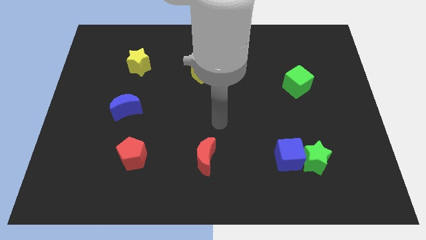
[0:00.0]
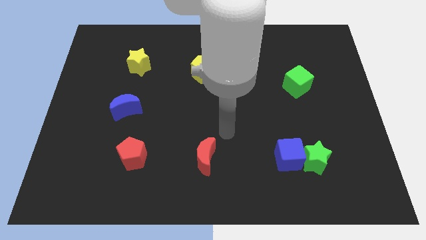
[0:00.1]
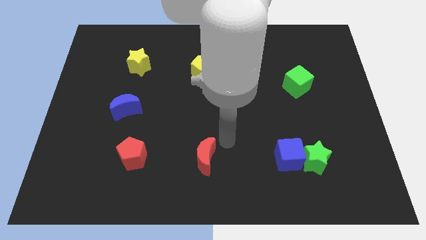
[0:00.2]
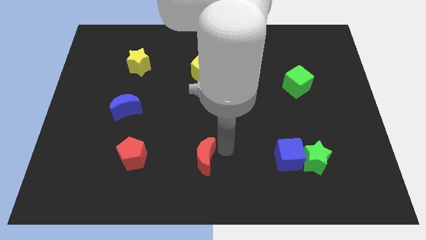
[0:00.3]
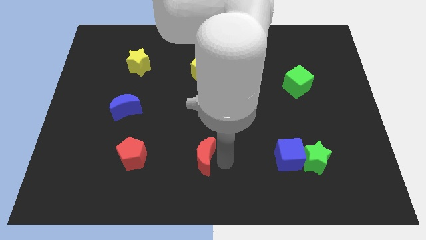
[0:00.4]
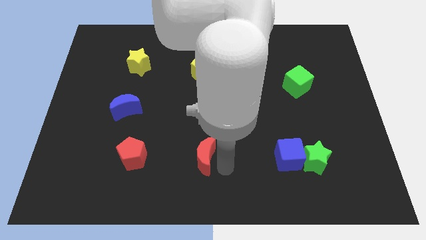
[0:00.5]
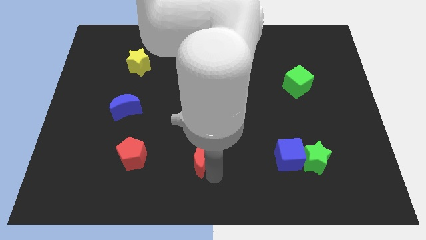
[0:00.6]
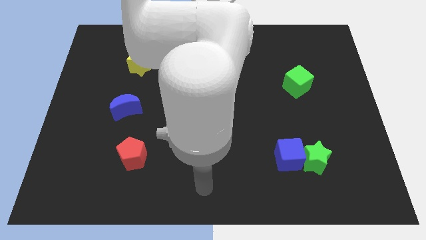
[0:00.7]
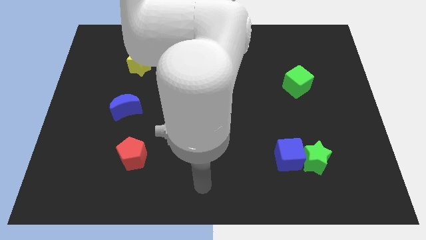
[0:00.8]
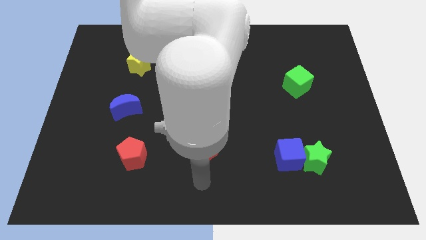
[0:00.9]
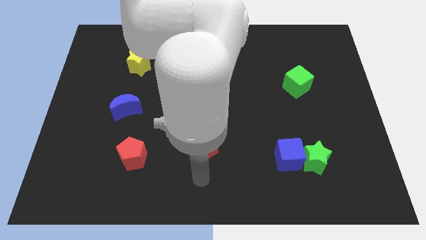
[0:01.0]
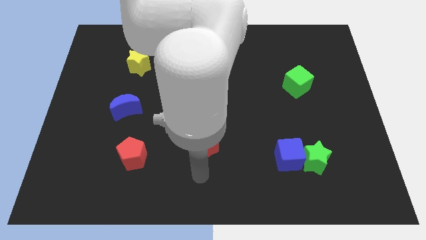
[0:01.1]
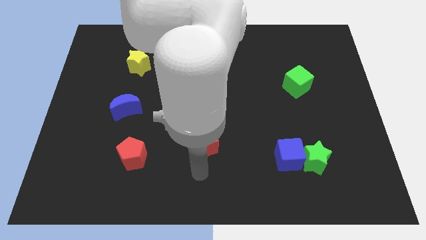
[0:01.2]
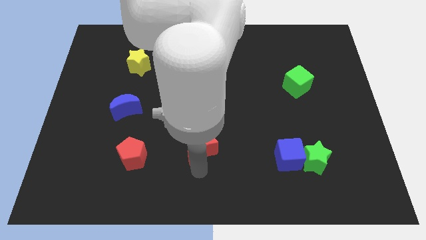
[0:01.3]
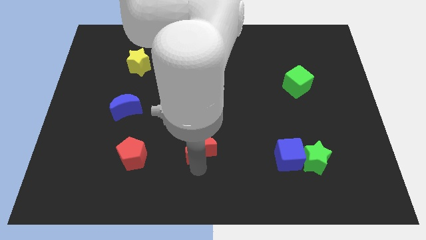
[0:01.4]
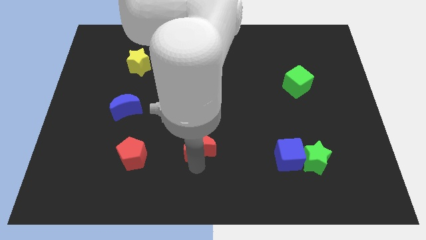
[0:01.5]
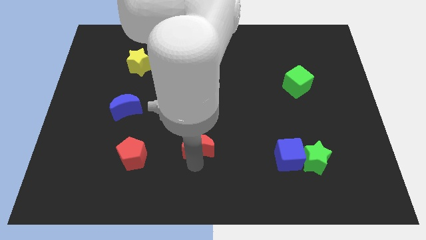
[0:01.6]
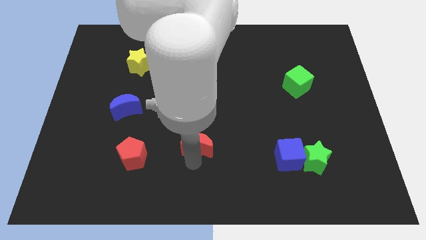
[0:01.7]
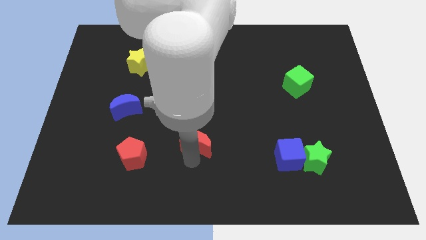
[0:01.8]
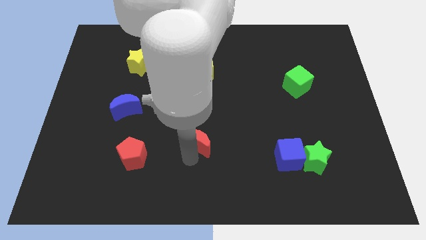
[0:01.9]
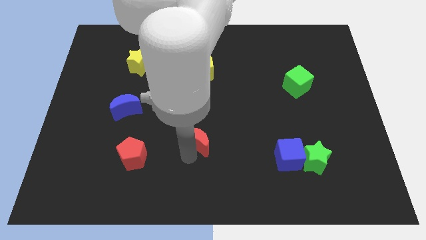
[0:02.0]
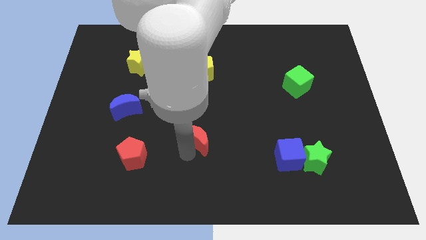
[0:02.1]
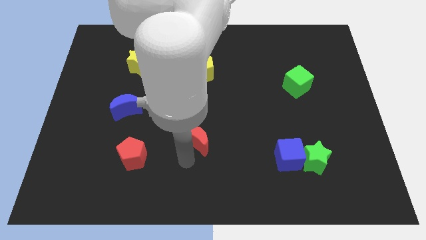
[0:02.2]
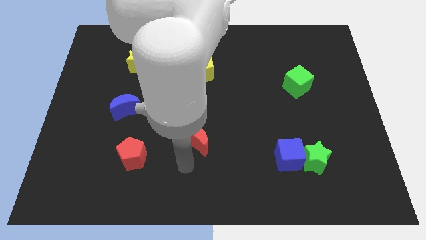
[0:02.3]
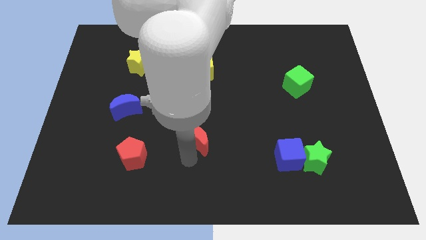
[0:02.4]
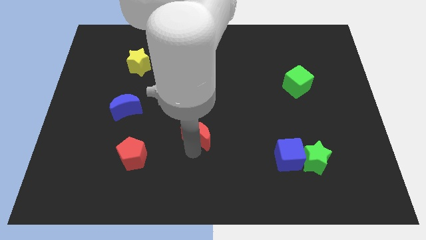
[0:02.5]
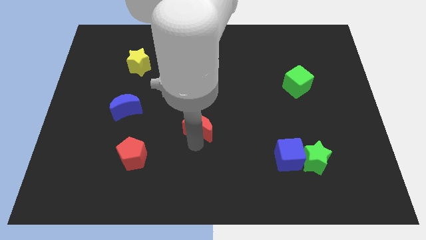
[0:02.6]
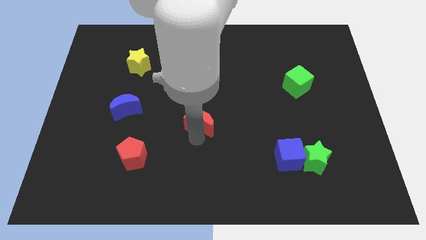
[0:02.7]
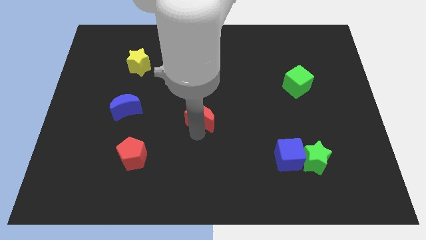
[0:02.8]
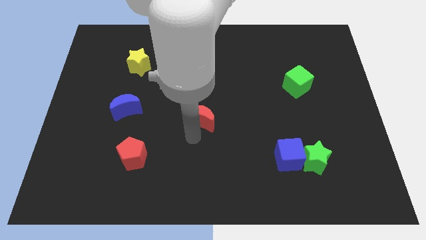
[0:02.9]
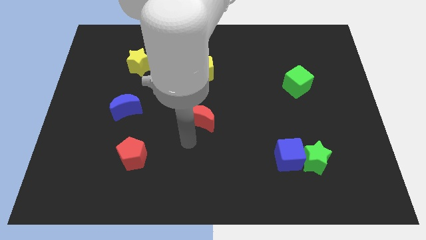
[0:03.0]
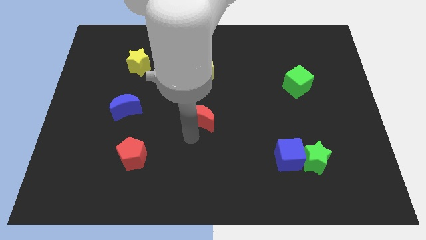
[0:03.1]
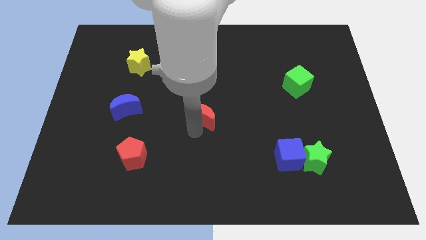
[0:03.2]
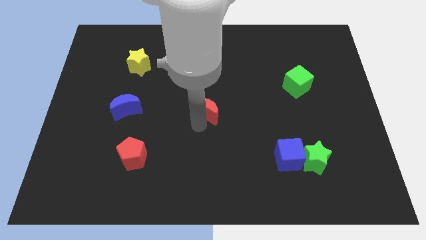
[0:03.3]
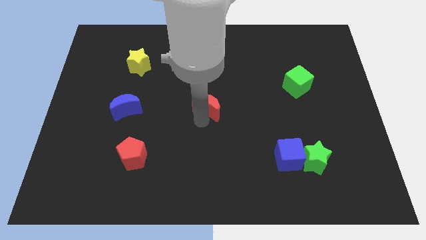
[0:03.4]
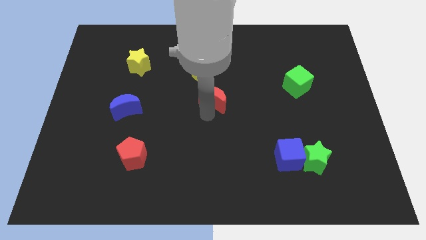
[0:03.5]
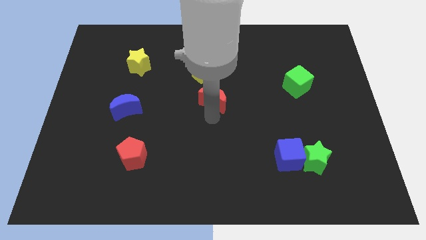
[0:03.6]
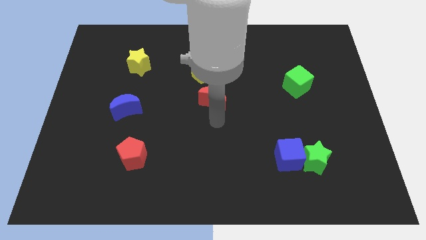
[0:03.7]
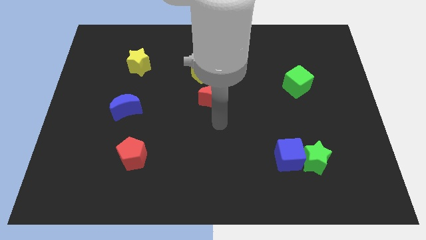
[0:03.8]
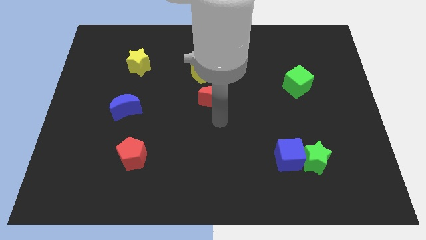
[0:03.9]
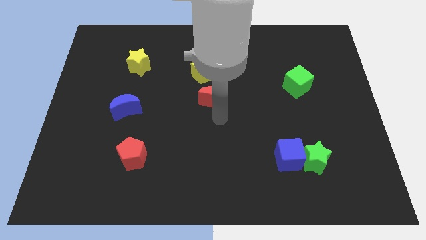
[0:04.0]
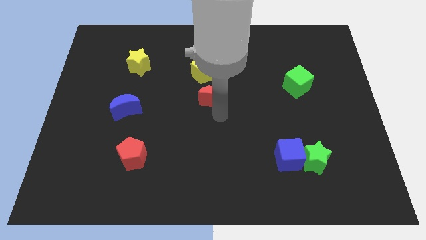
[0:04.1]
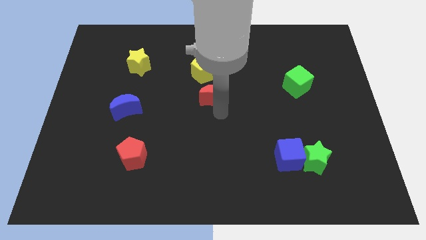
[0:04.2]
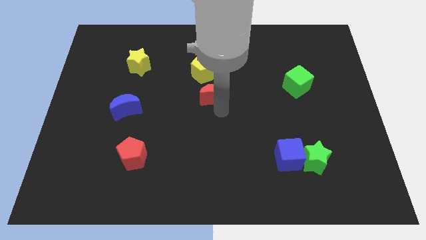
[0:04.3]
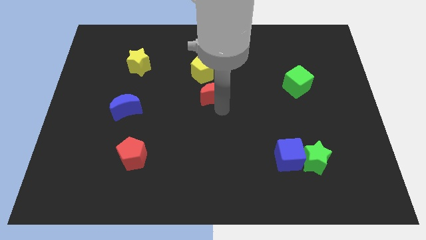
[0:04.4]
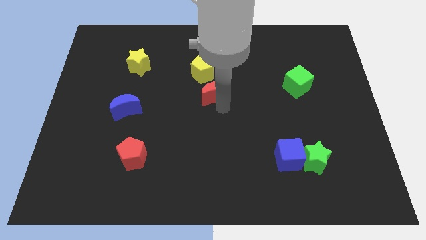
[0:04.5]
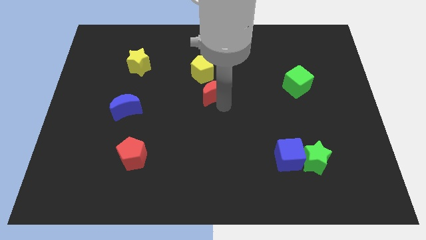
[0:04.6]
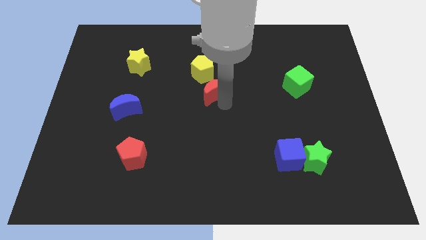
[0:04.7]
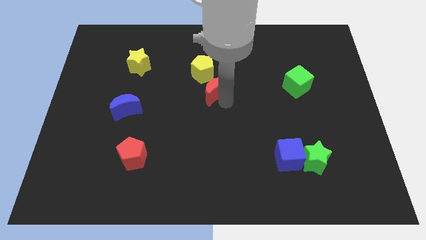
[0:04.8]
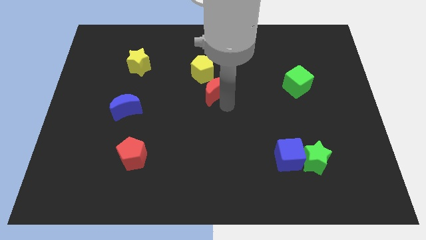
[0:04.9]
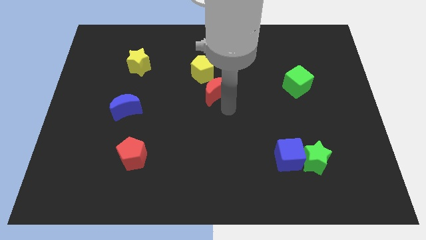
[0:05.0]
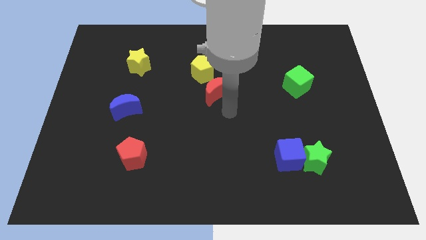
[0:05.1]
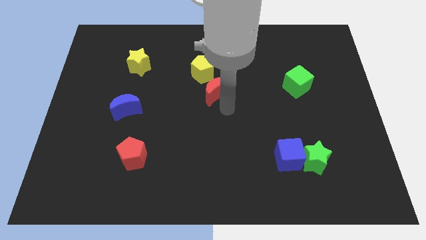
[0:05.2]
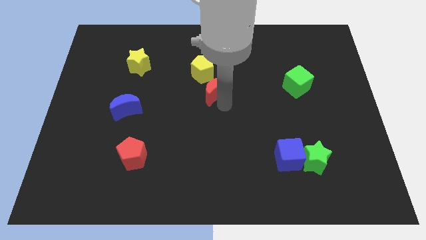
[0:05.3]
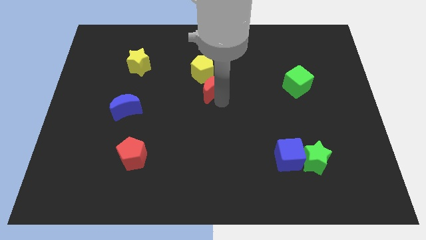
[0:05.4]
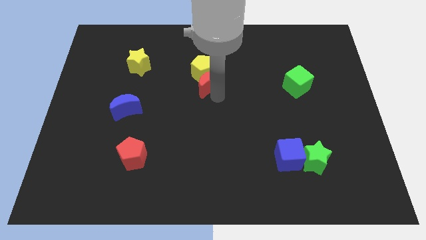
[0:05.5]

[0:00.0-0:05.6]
slide the red moon towards the yellow pentagon

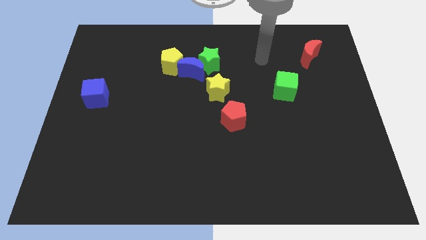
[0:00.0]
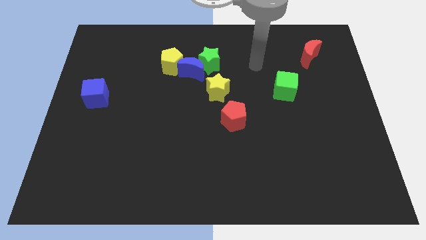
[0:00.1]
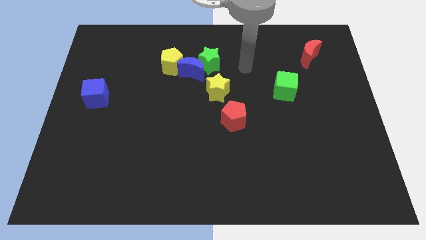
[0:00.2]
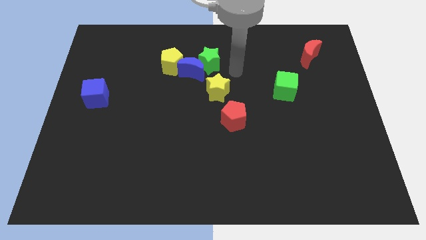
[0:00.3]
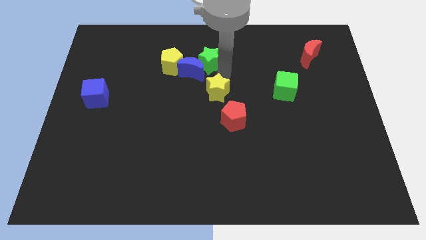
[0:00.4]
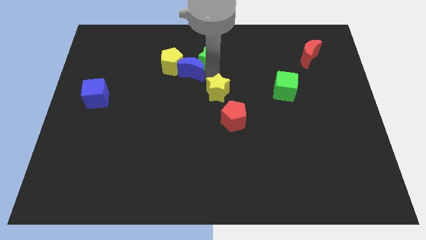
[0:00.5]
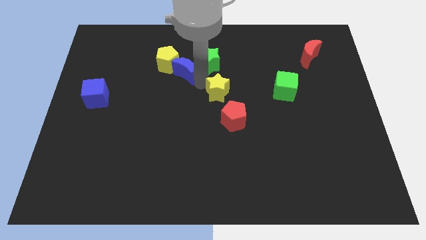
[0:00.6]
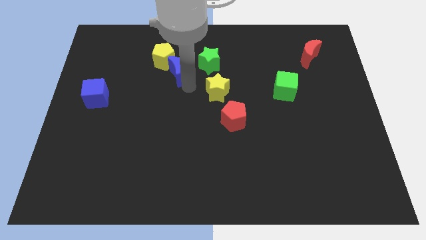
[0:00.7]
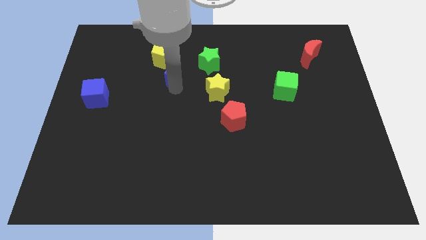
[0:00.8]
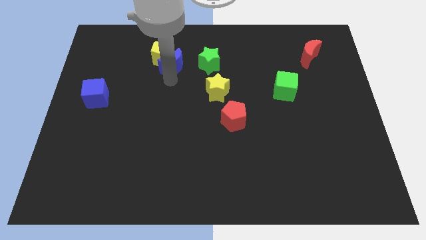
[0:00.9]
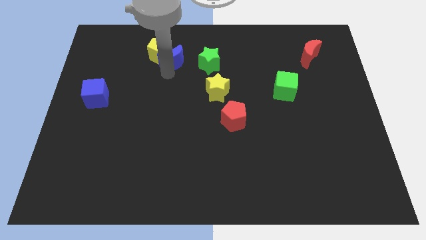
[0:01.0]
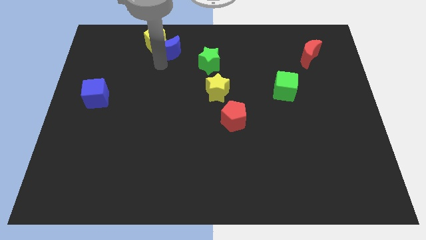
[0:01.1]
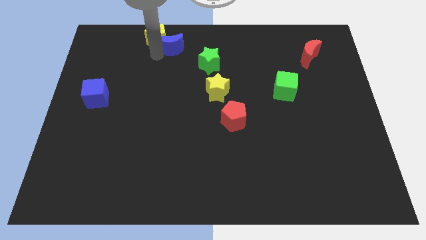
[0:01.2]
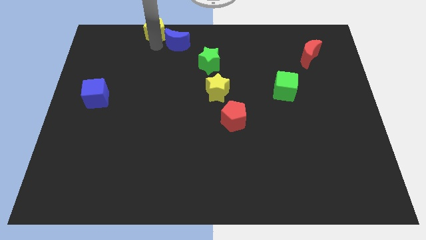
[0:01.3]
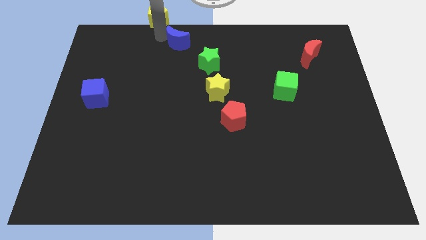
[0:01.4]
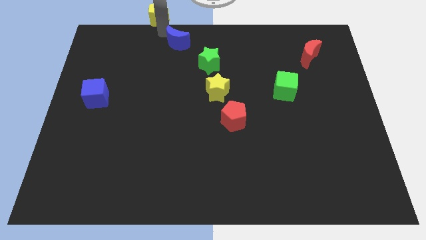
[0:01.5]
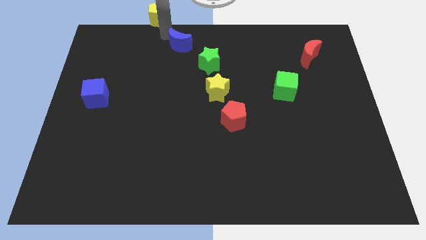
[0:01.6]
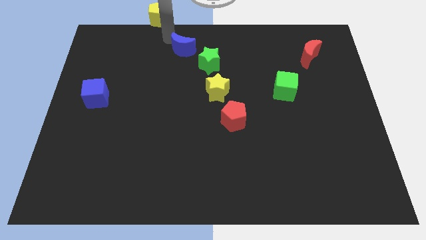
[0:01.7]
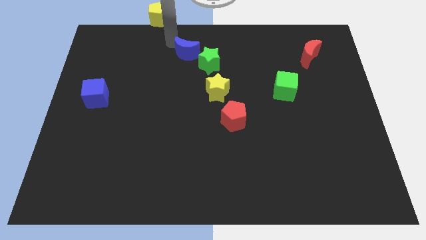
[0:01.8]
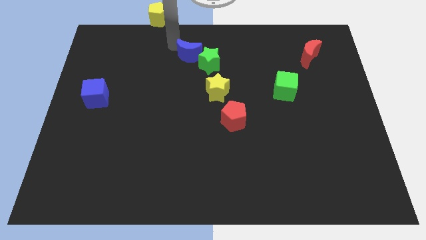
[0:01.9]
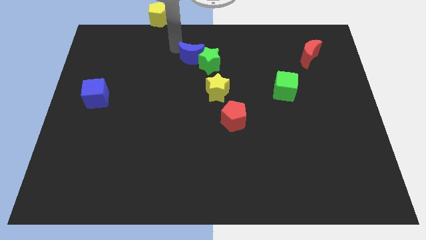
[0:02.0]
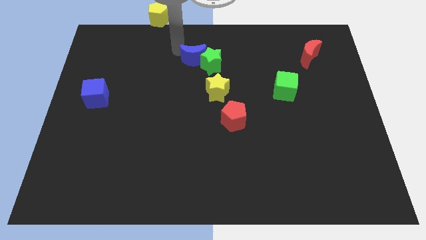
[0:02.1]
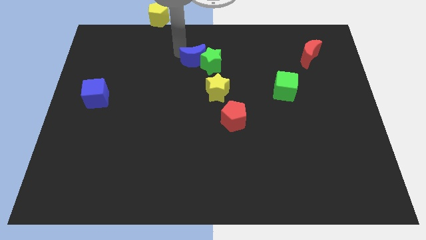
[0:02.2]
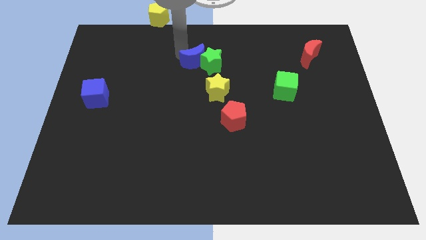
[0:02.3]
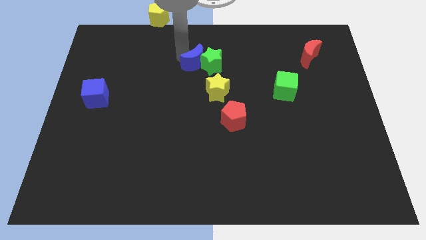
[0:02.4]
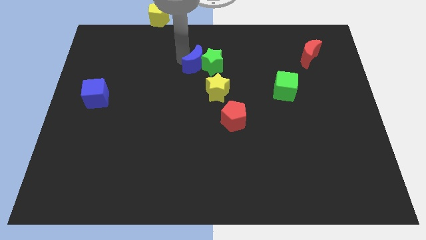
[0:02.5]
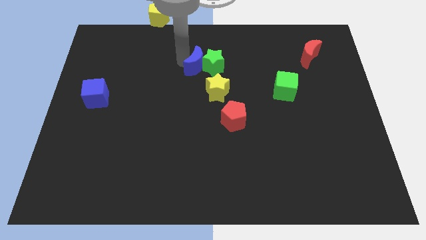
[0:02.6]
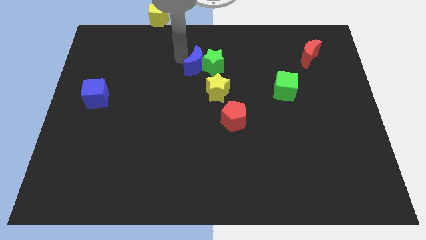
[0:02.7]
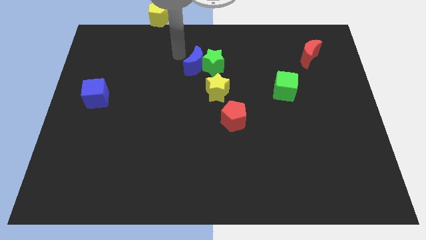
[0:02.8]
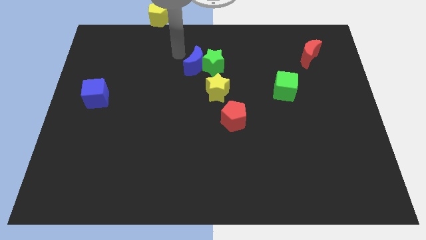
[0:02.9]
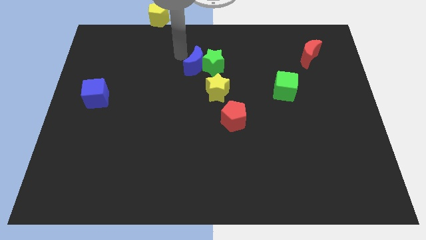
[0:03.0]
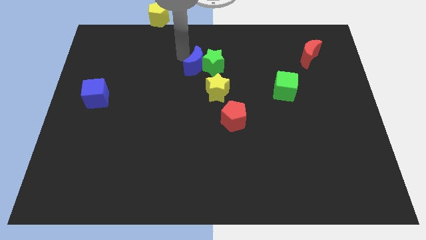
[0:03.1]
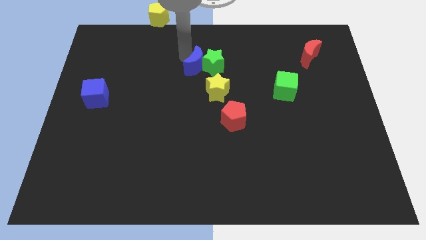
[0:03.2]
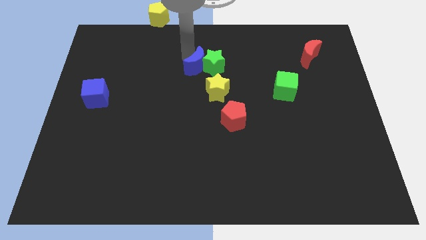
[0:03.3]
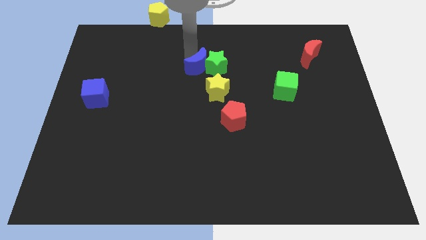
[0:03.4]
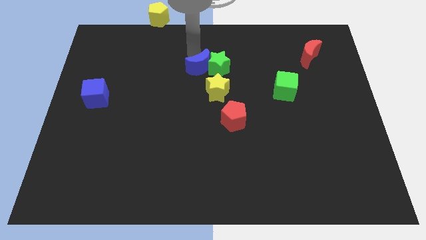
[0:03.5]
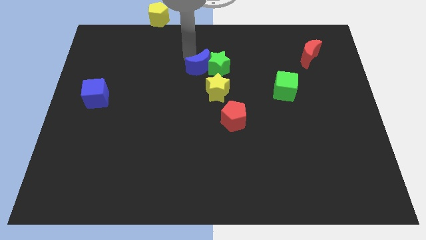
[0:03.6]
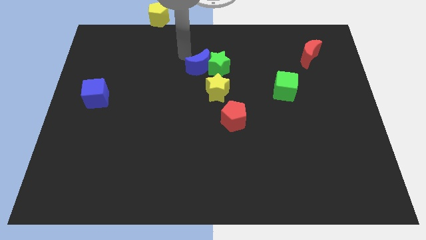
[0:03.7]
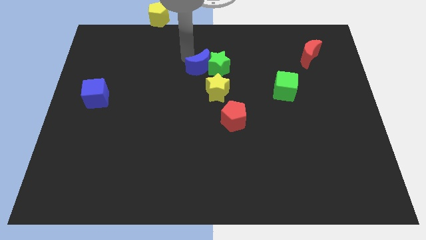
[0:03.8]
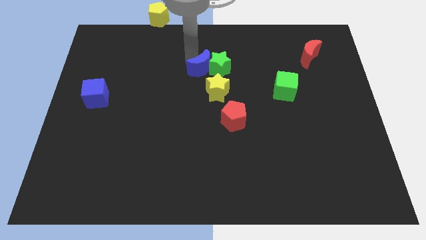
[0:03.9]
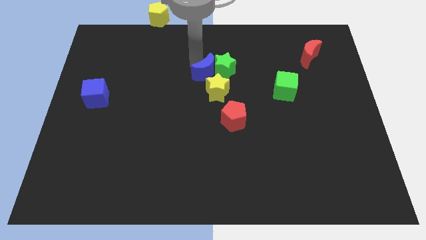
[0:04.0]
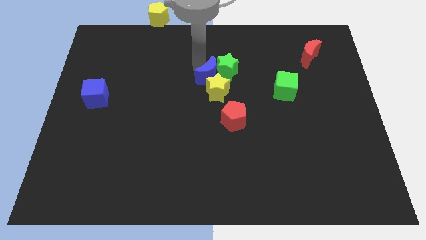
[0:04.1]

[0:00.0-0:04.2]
push the blue moon close to the yellow star
